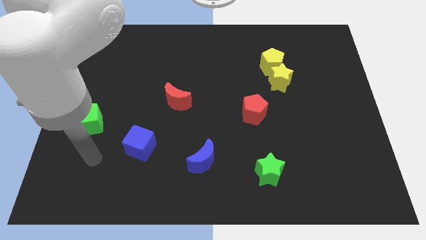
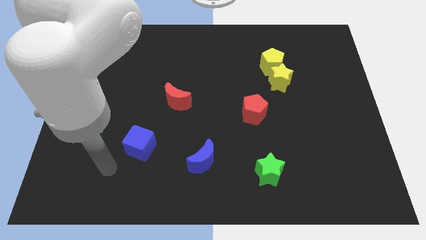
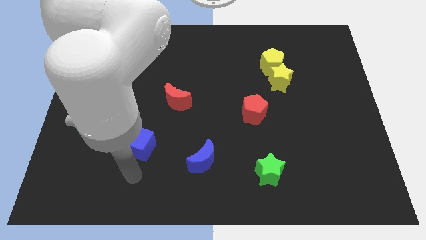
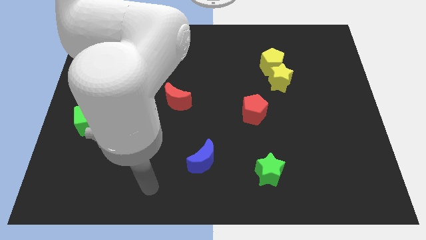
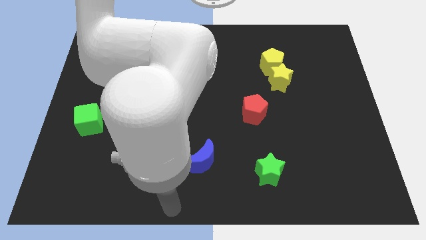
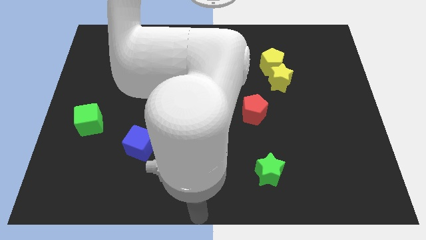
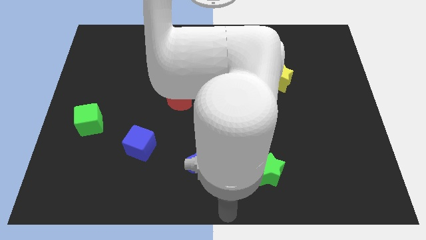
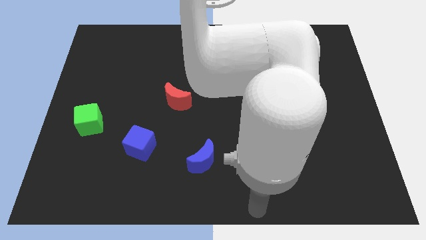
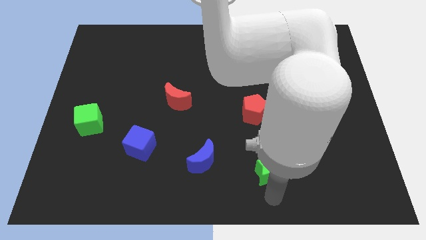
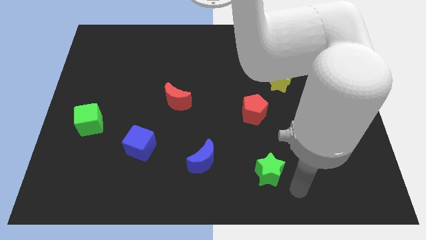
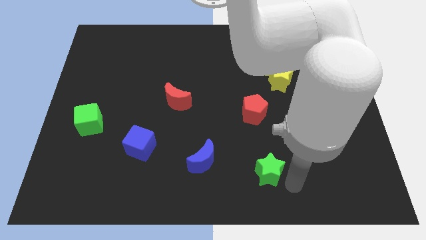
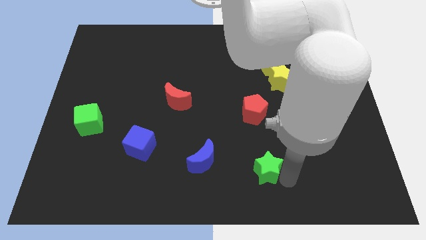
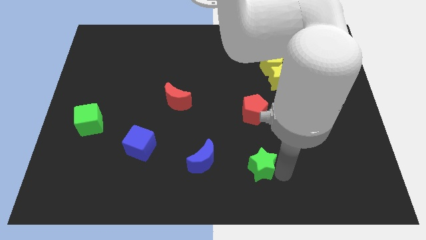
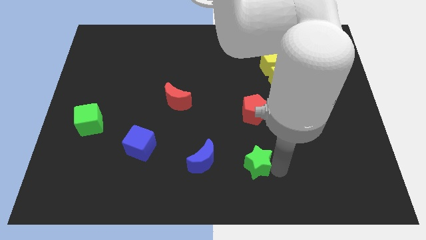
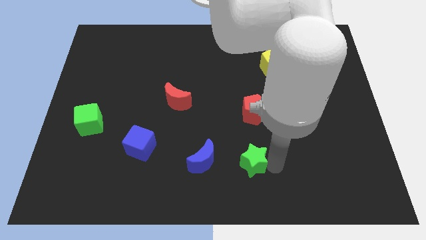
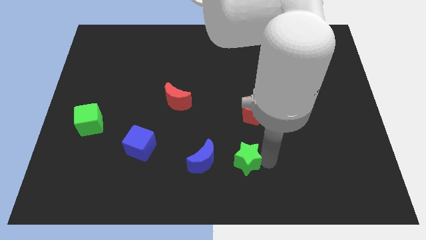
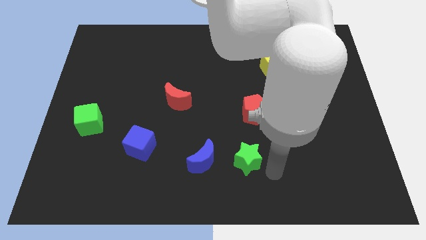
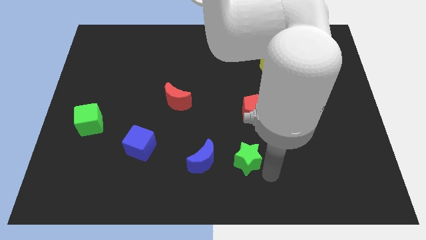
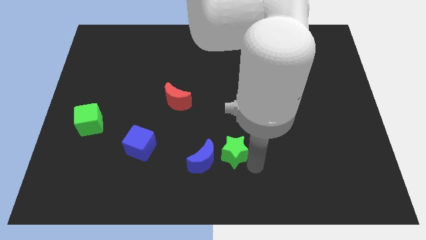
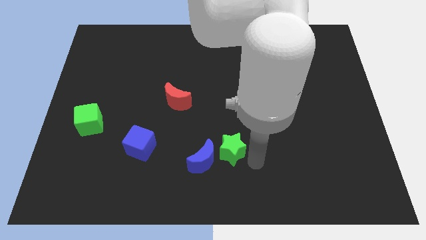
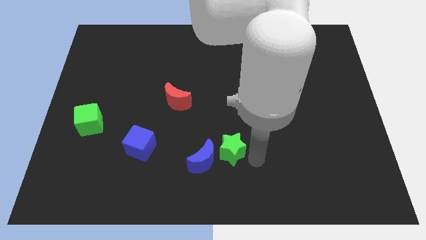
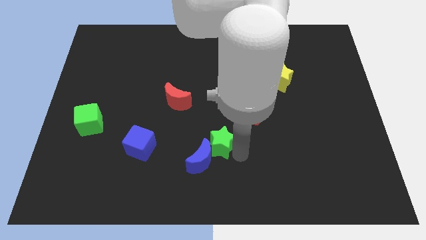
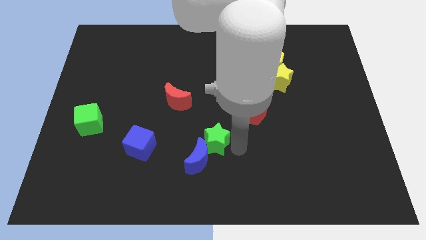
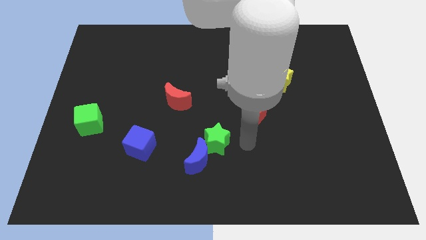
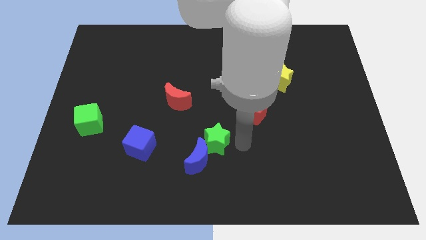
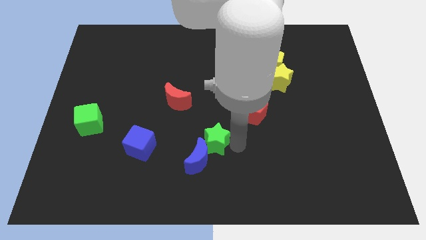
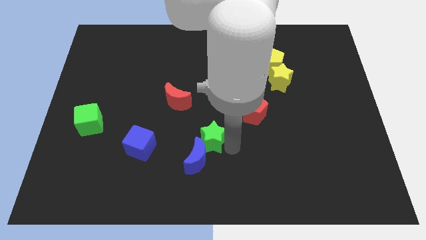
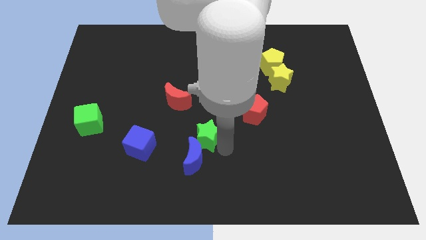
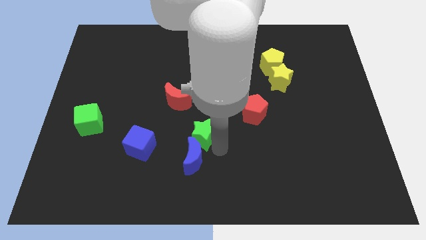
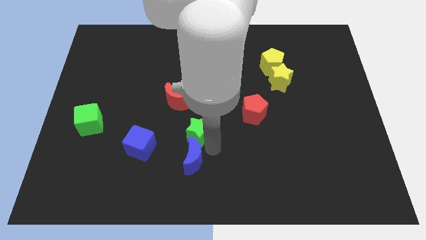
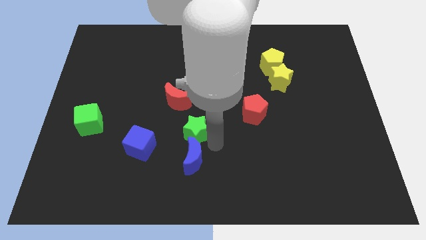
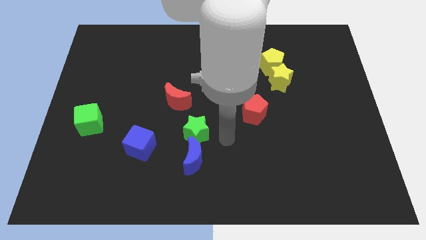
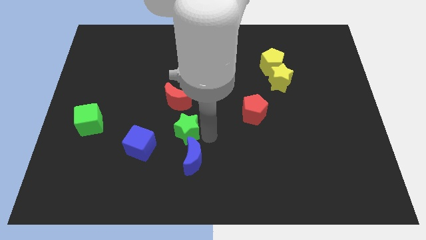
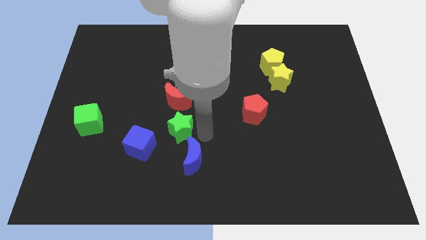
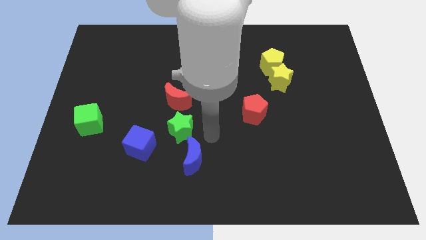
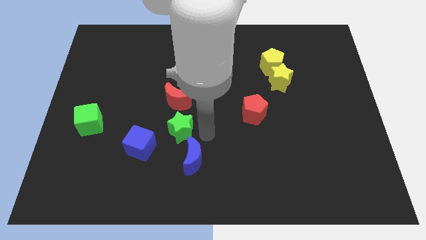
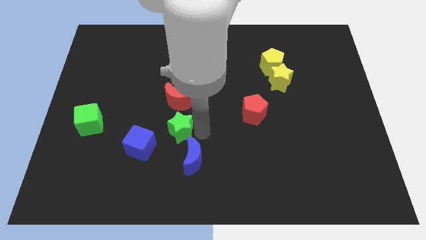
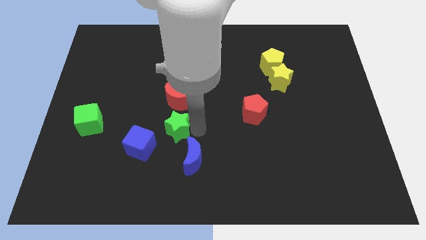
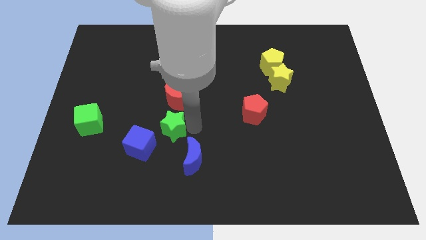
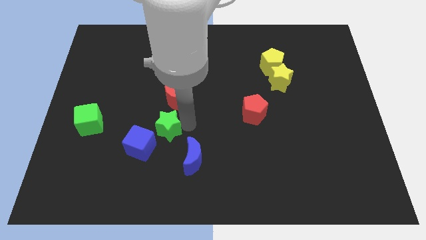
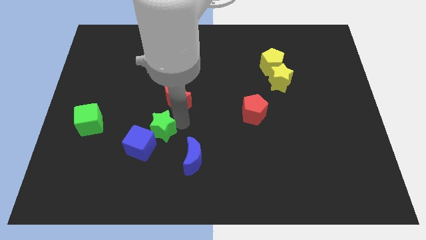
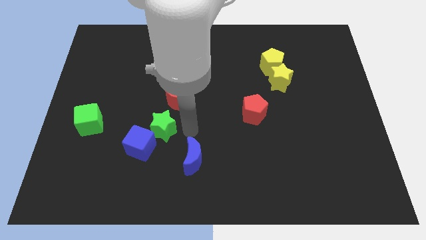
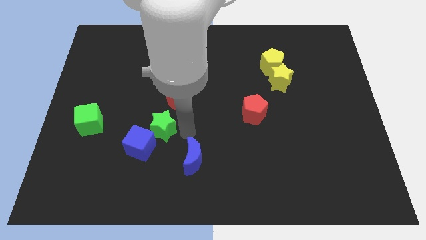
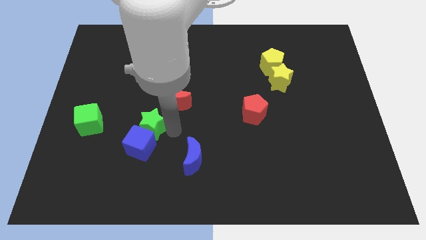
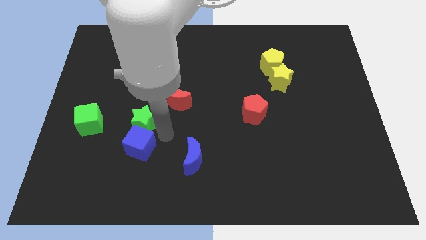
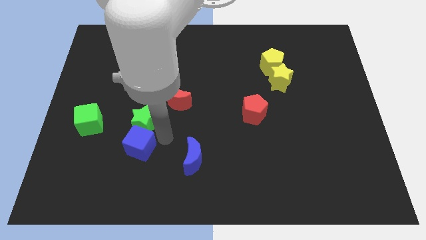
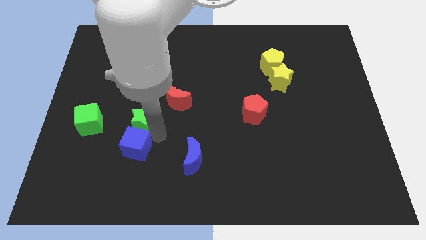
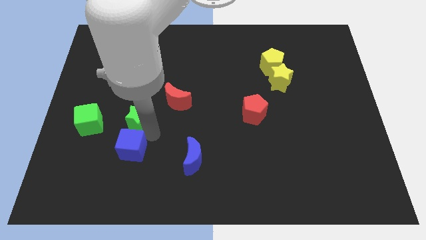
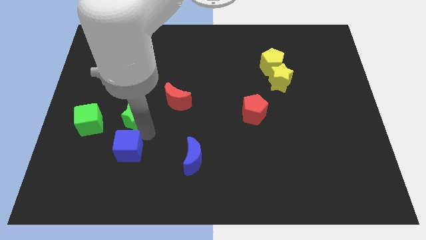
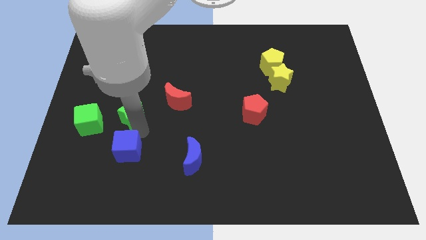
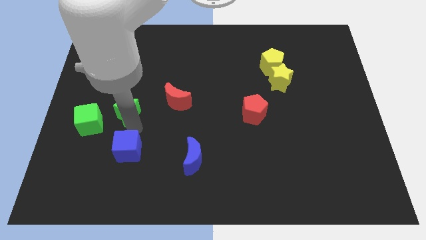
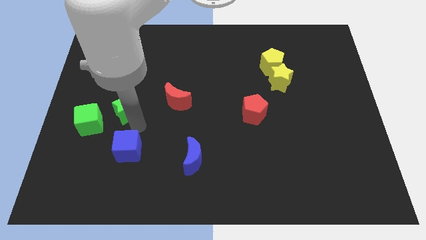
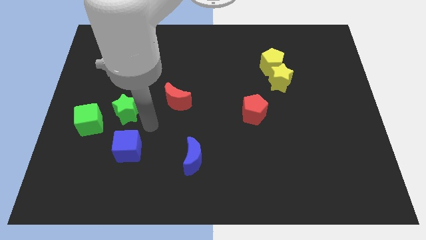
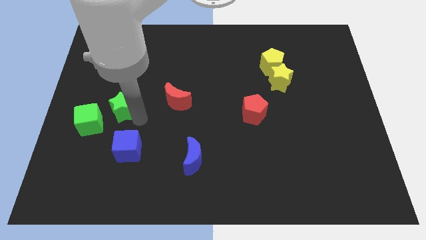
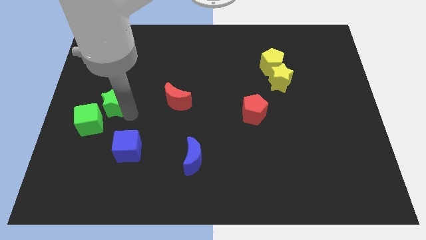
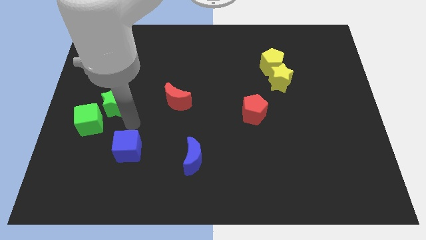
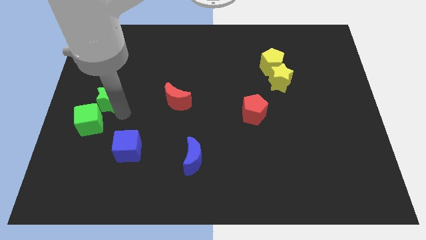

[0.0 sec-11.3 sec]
slide the green star to the top of the green cube

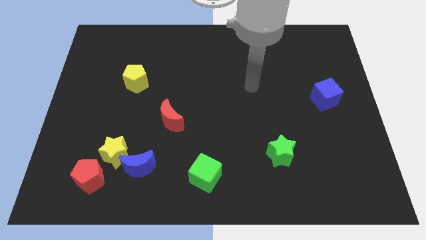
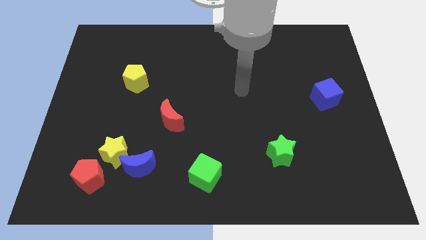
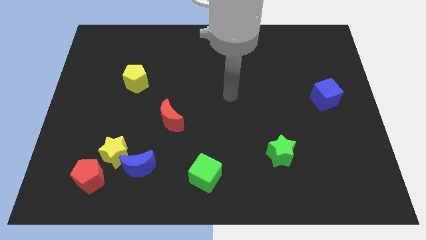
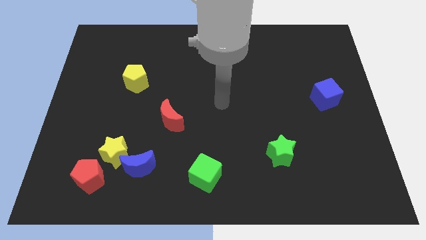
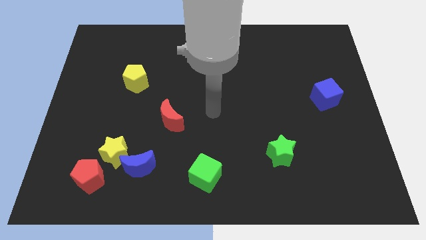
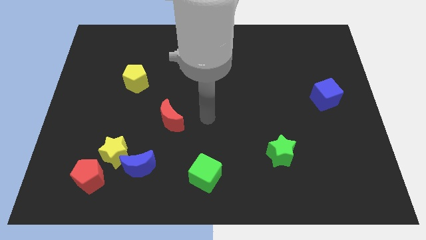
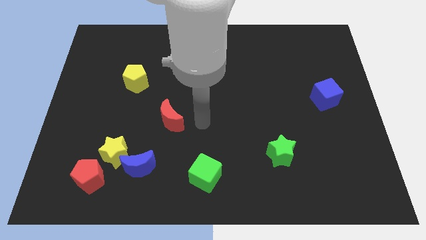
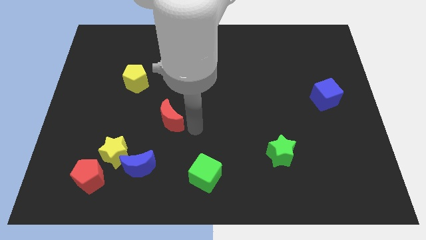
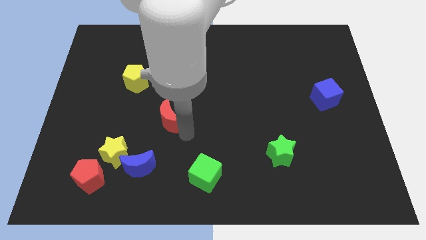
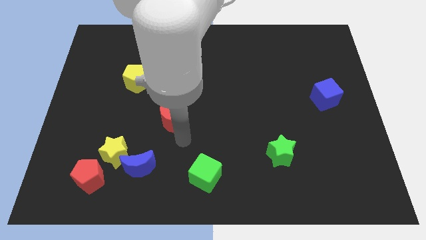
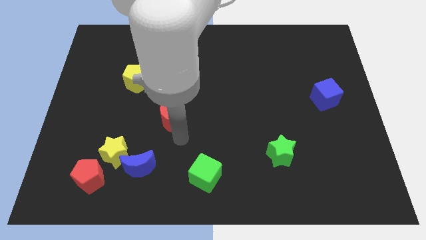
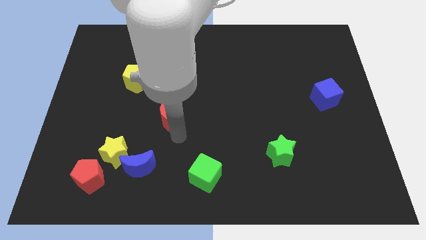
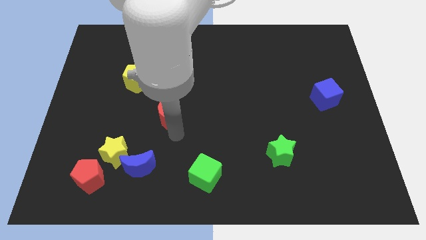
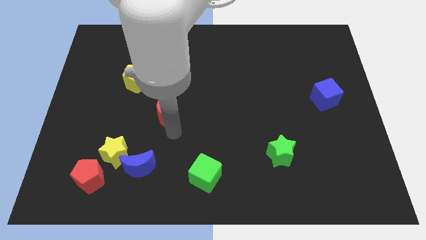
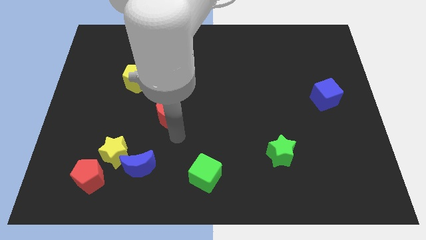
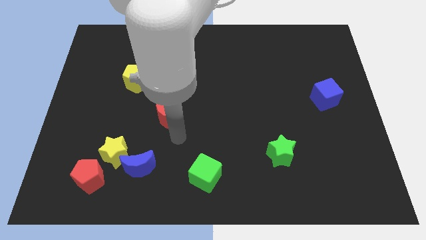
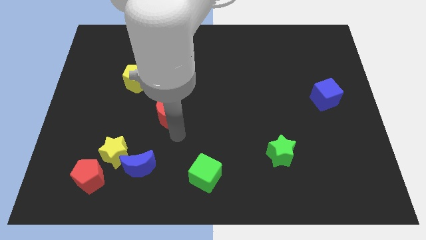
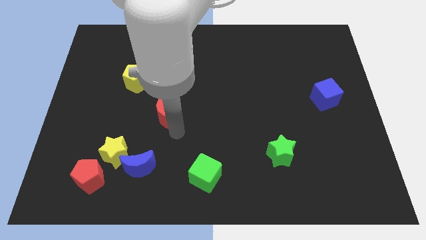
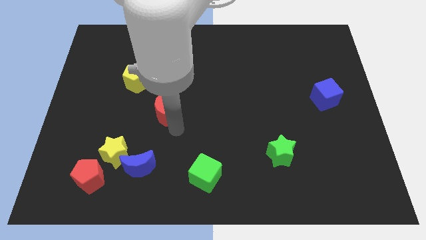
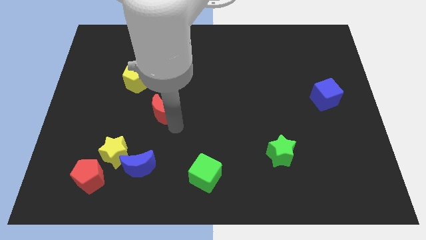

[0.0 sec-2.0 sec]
push the red moon to the bottom right of the yellow pentagon
